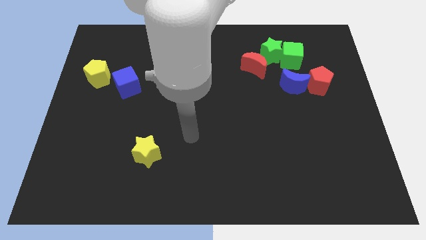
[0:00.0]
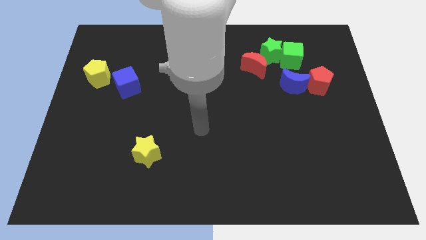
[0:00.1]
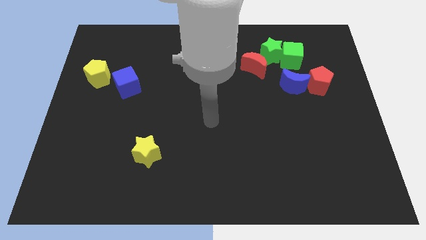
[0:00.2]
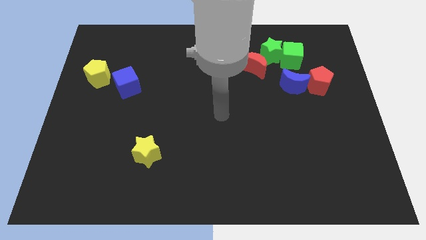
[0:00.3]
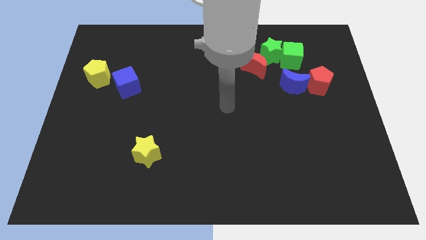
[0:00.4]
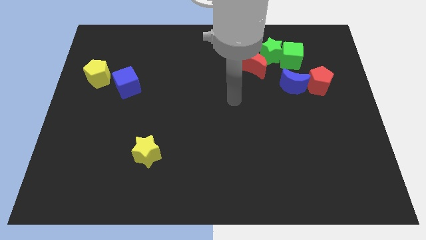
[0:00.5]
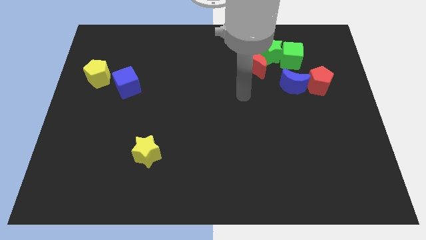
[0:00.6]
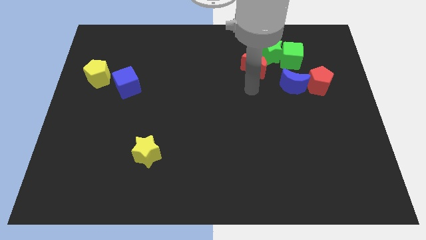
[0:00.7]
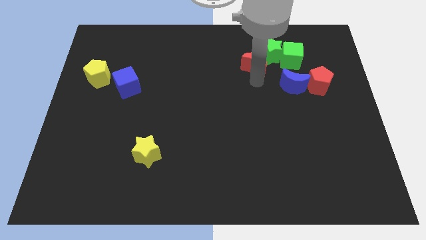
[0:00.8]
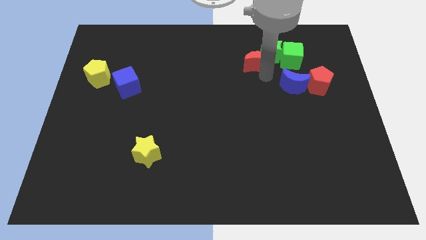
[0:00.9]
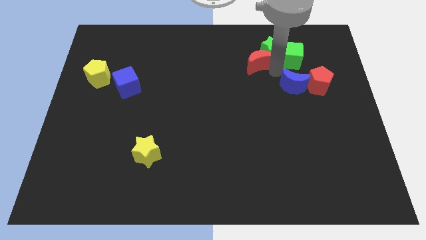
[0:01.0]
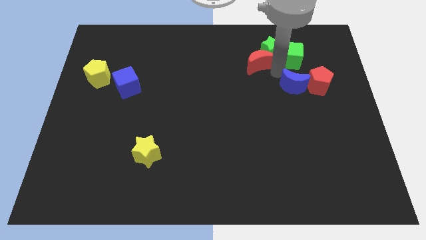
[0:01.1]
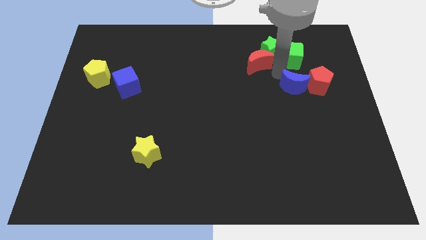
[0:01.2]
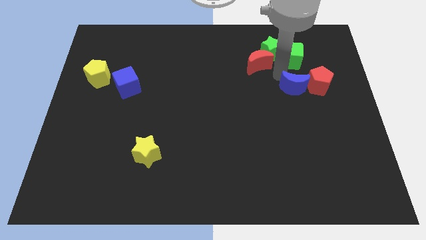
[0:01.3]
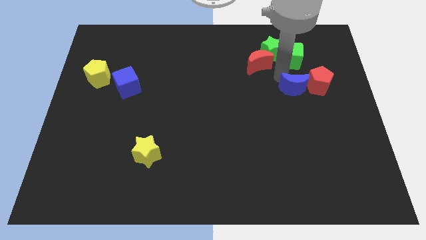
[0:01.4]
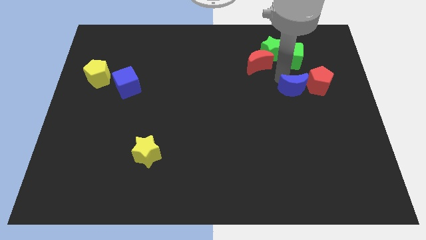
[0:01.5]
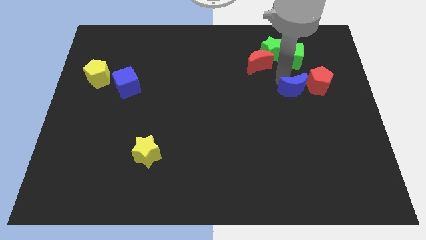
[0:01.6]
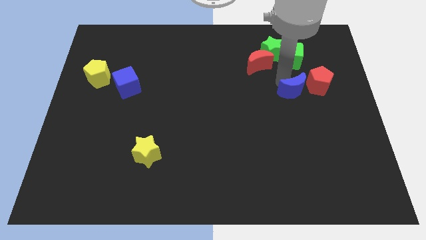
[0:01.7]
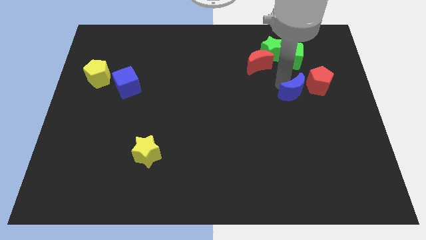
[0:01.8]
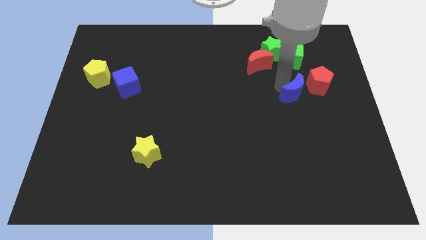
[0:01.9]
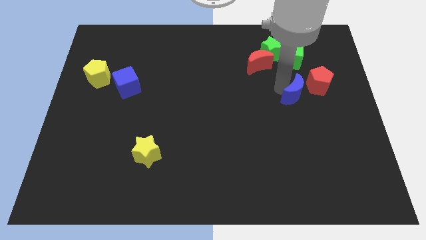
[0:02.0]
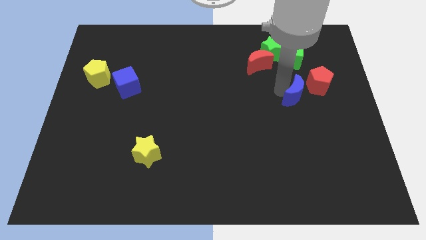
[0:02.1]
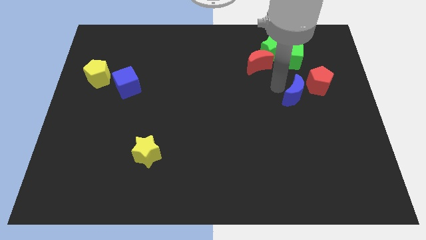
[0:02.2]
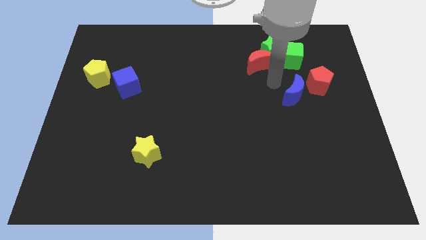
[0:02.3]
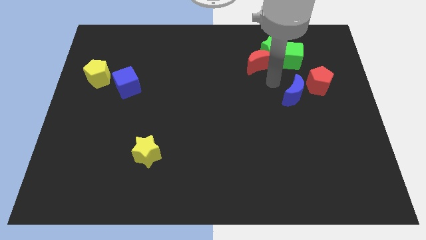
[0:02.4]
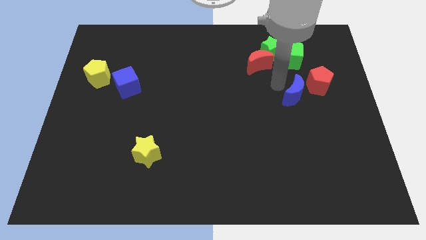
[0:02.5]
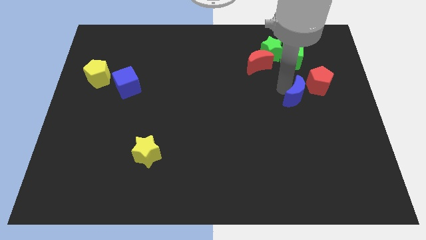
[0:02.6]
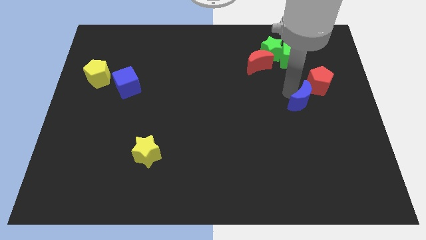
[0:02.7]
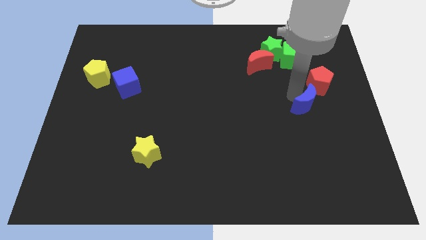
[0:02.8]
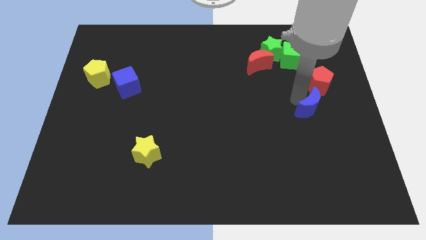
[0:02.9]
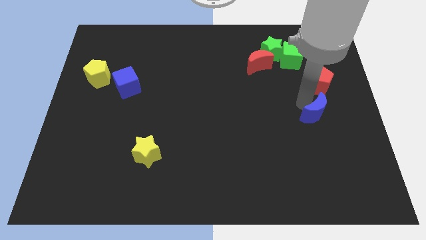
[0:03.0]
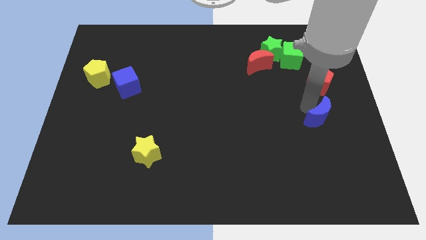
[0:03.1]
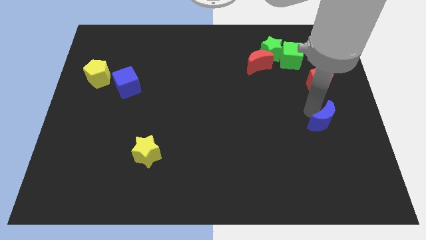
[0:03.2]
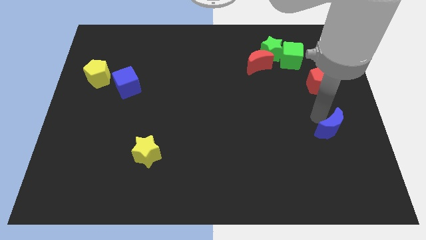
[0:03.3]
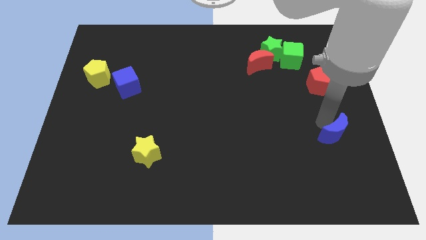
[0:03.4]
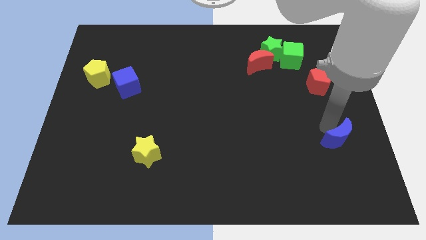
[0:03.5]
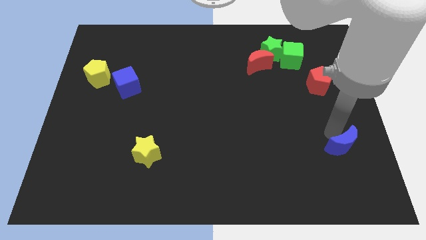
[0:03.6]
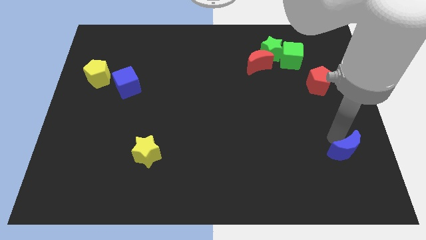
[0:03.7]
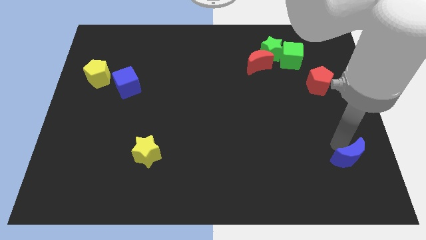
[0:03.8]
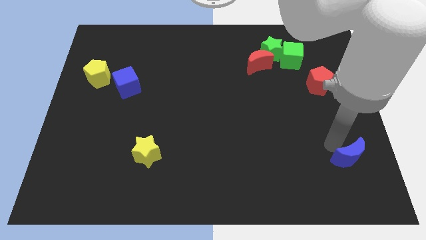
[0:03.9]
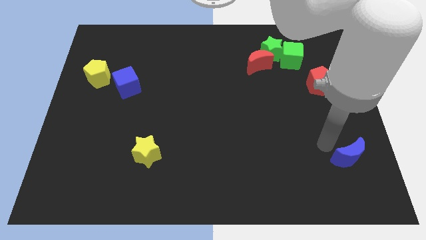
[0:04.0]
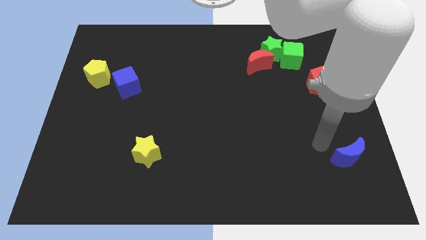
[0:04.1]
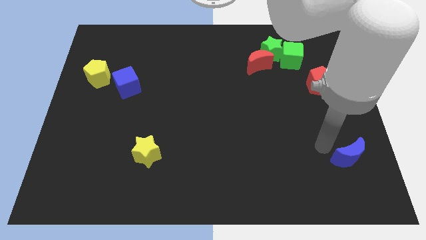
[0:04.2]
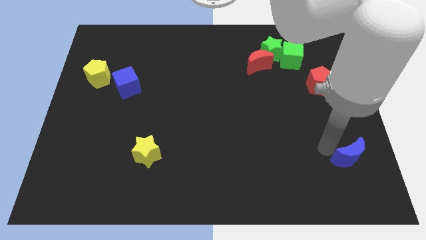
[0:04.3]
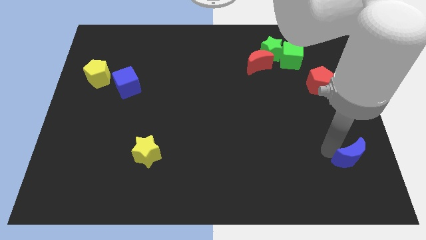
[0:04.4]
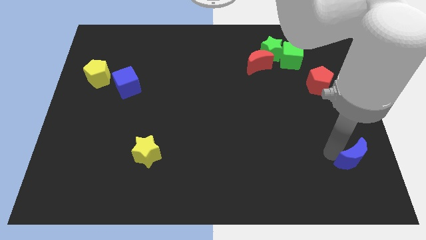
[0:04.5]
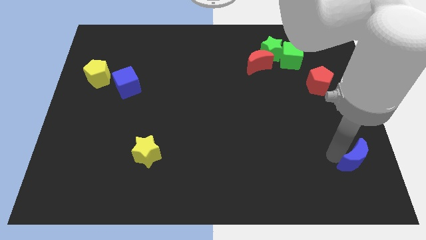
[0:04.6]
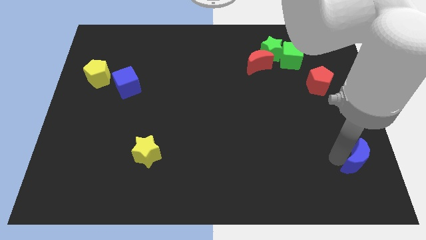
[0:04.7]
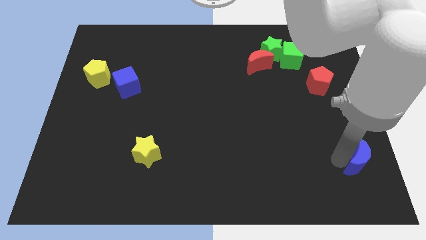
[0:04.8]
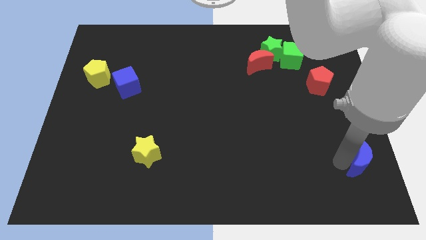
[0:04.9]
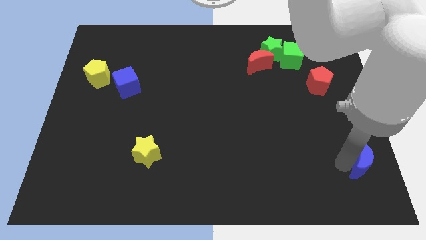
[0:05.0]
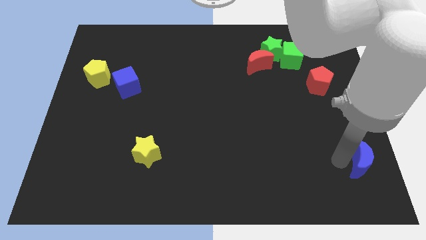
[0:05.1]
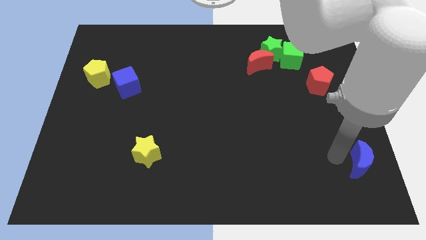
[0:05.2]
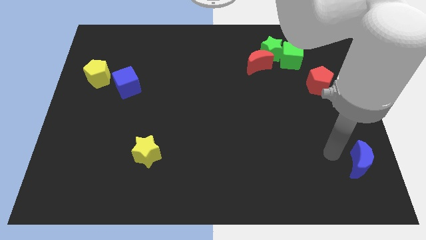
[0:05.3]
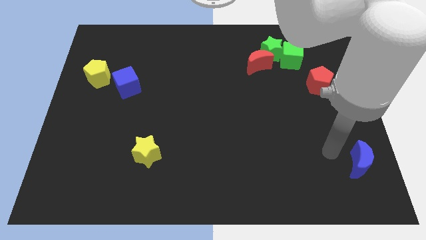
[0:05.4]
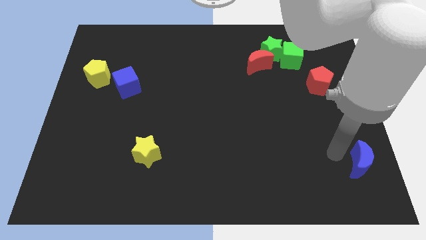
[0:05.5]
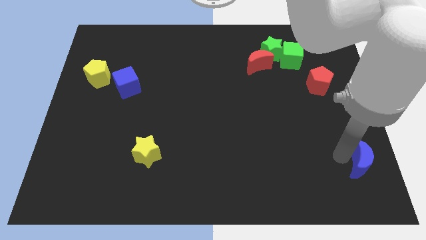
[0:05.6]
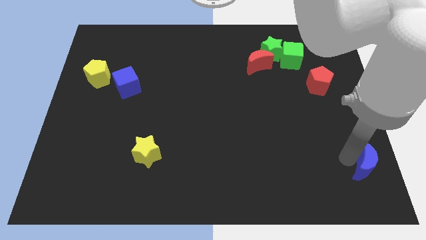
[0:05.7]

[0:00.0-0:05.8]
slide the blue moon to the lower right corner

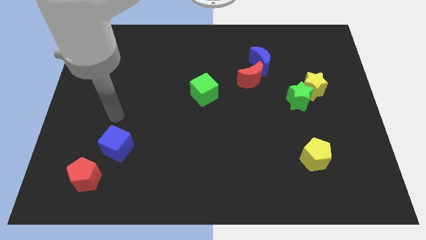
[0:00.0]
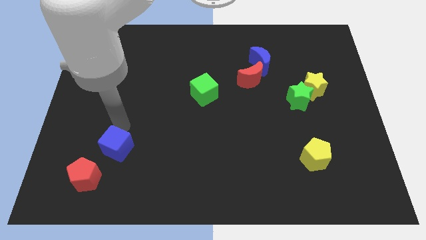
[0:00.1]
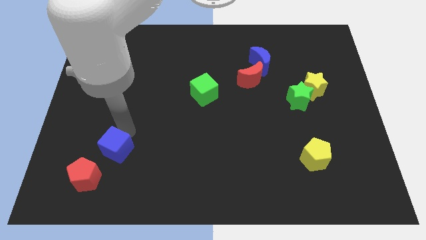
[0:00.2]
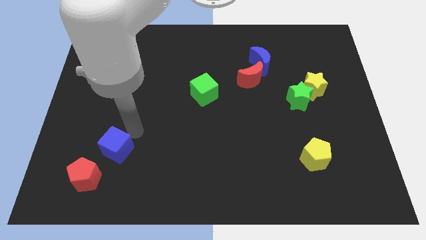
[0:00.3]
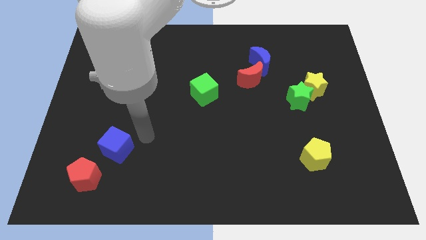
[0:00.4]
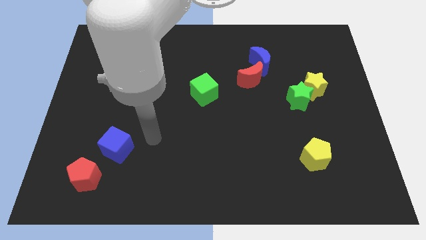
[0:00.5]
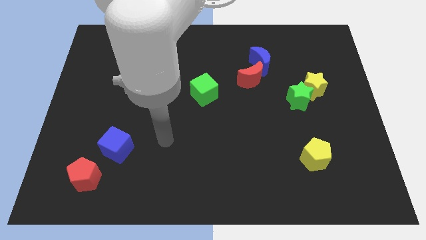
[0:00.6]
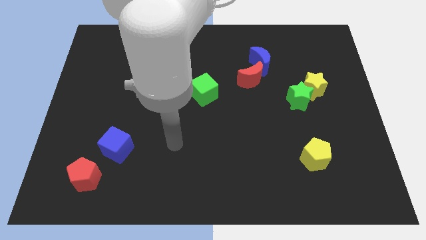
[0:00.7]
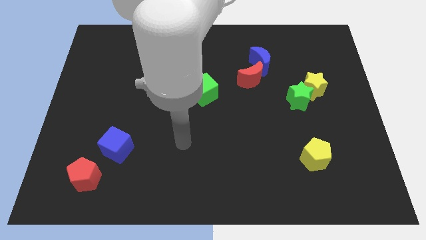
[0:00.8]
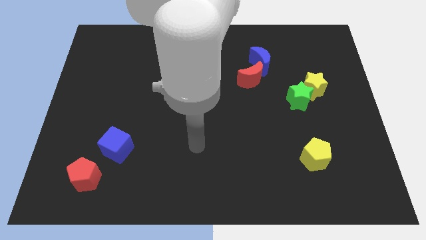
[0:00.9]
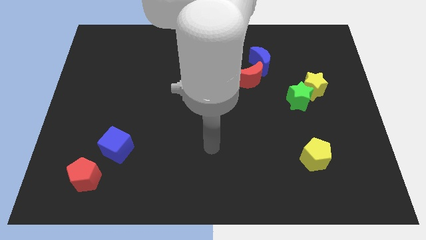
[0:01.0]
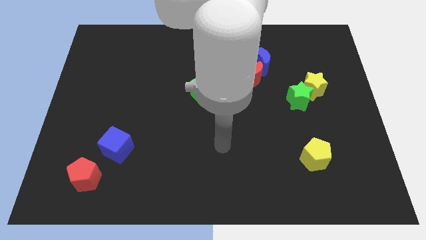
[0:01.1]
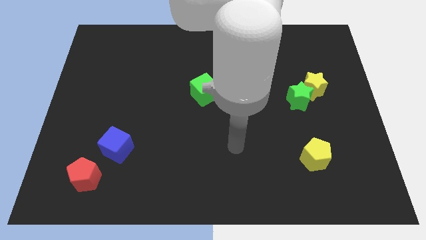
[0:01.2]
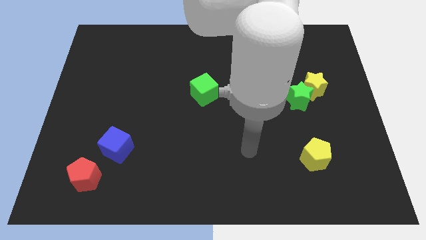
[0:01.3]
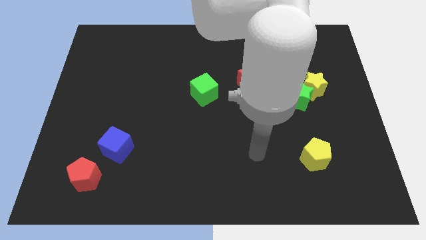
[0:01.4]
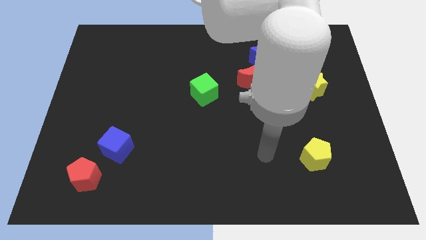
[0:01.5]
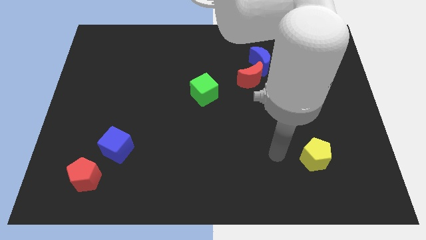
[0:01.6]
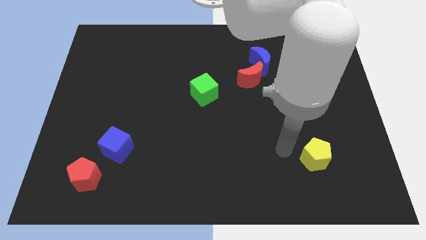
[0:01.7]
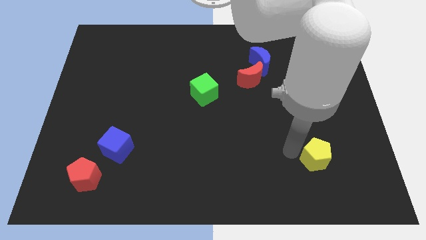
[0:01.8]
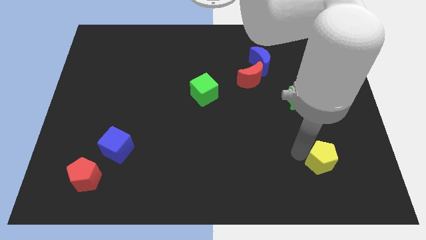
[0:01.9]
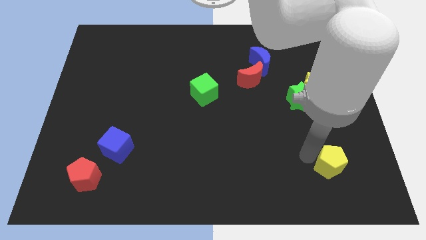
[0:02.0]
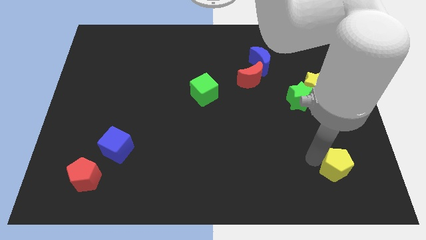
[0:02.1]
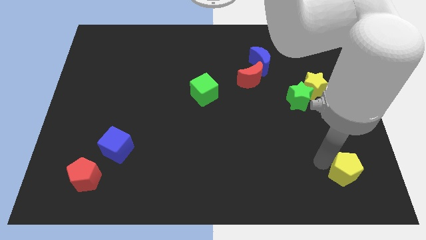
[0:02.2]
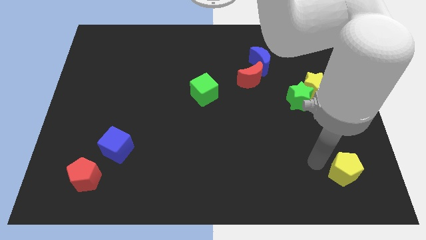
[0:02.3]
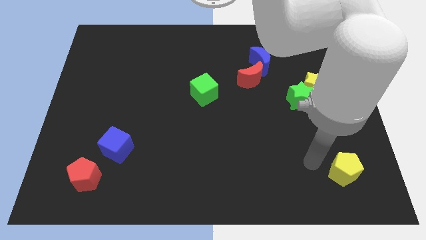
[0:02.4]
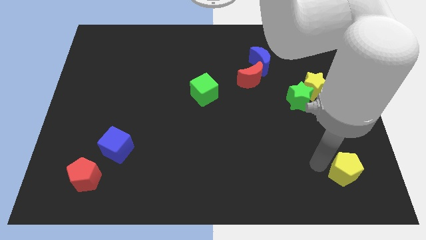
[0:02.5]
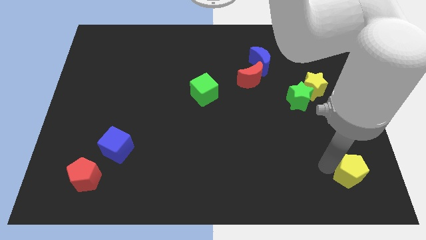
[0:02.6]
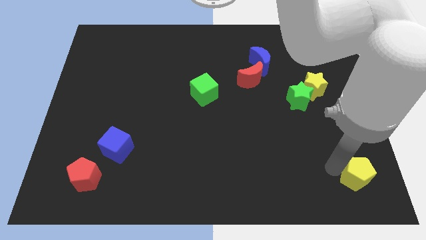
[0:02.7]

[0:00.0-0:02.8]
push the yellow pentagon to the bottom right
